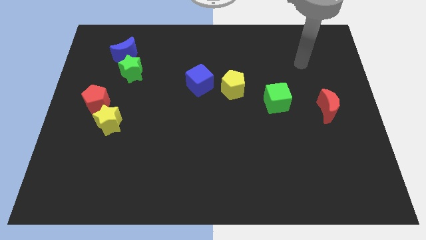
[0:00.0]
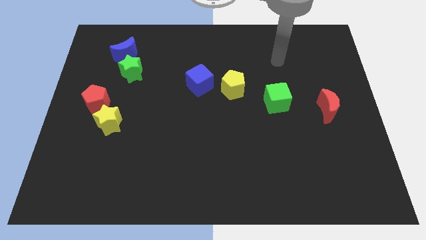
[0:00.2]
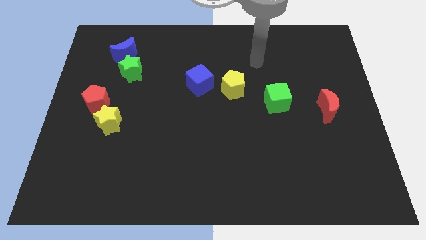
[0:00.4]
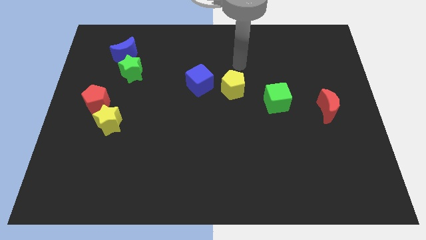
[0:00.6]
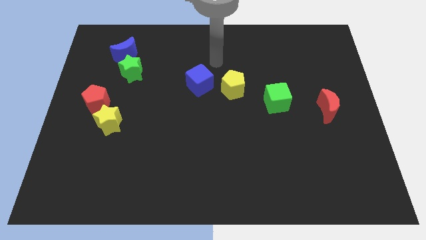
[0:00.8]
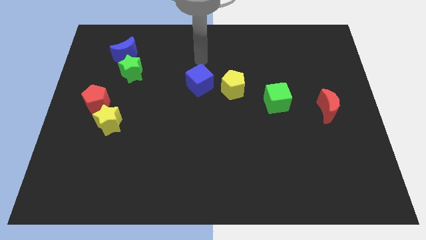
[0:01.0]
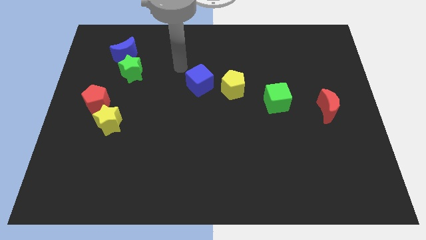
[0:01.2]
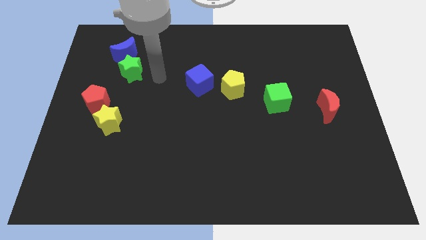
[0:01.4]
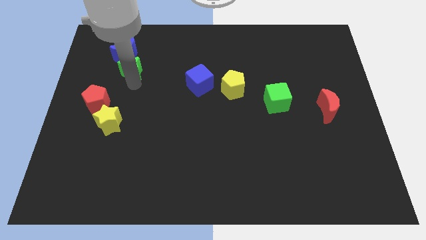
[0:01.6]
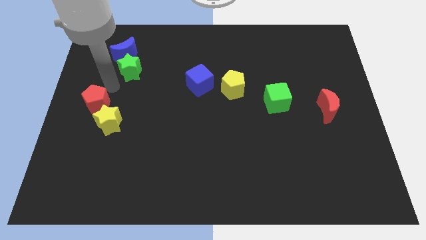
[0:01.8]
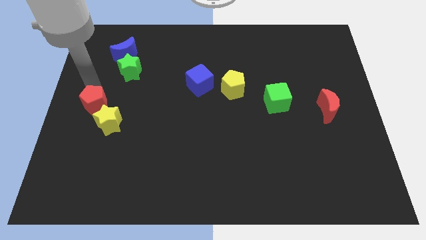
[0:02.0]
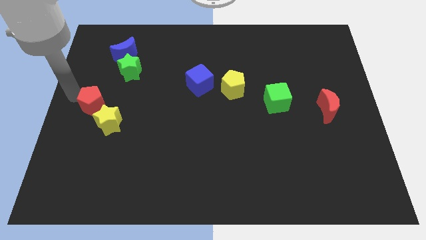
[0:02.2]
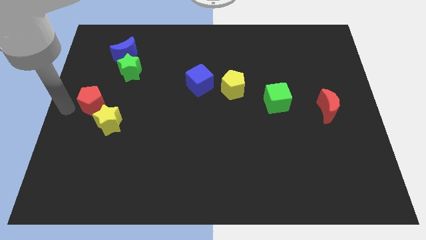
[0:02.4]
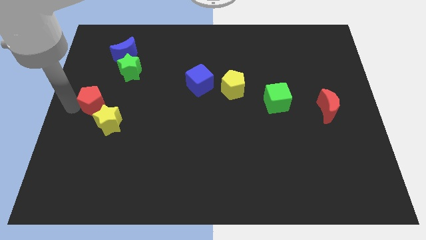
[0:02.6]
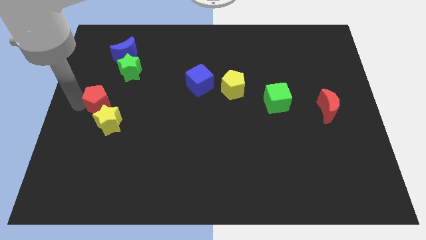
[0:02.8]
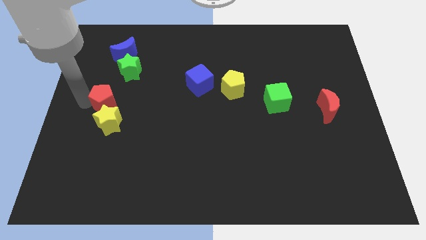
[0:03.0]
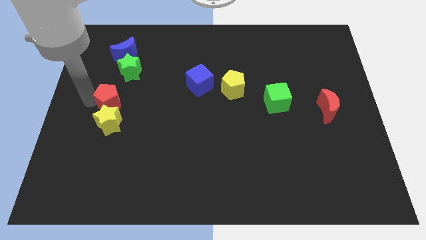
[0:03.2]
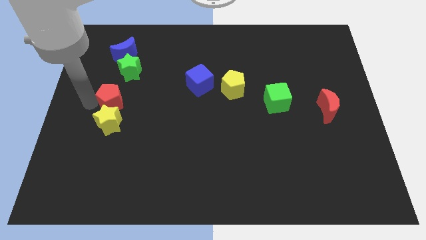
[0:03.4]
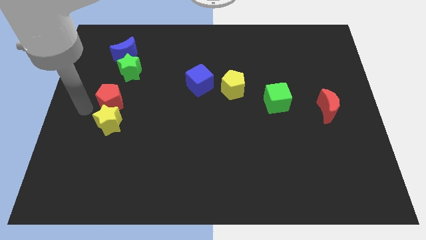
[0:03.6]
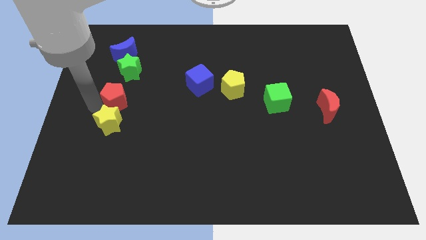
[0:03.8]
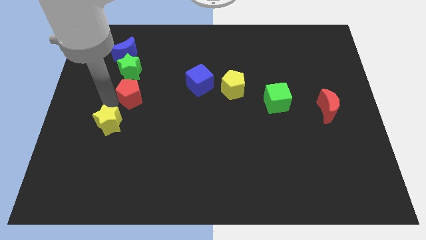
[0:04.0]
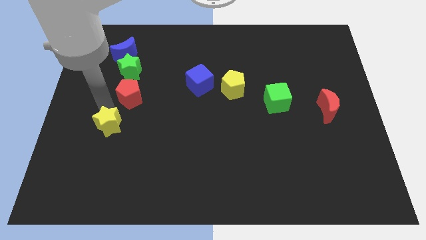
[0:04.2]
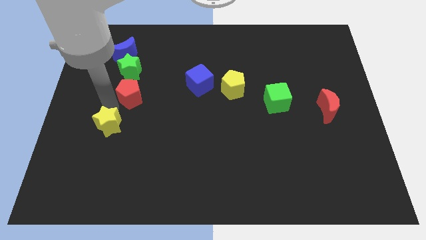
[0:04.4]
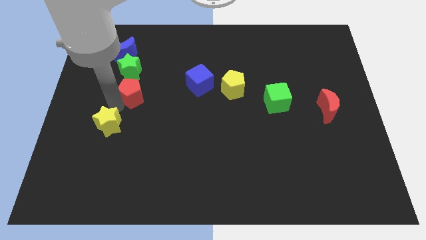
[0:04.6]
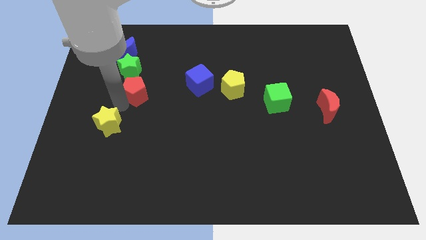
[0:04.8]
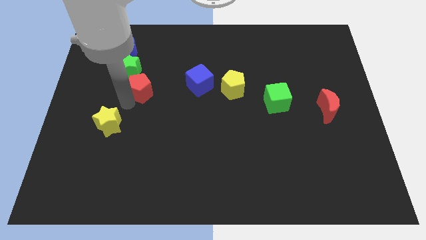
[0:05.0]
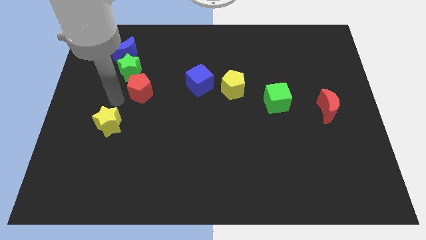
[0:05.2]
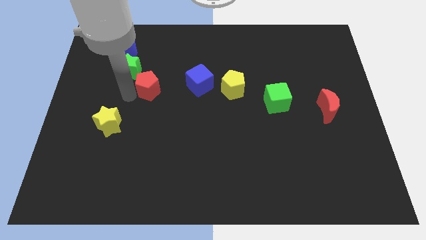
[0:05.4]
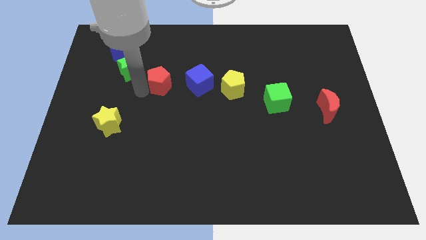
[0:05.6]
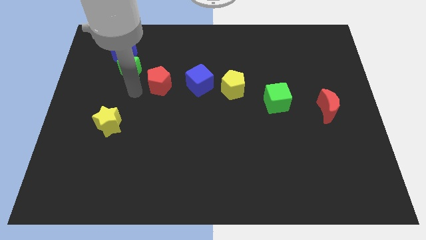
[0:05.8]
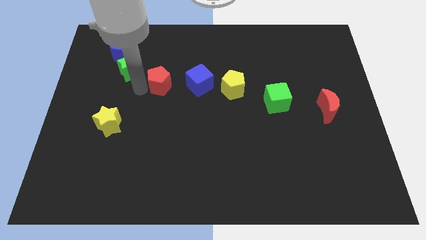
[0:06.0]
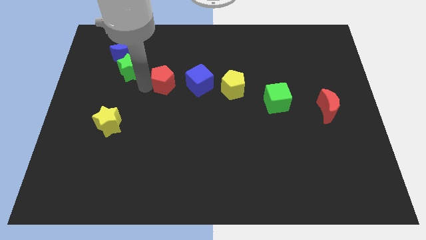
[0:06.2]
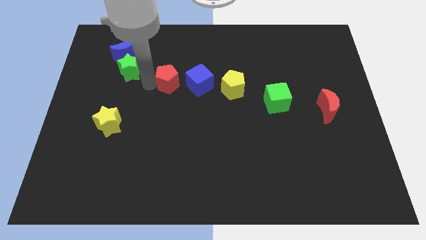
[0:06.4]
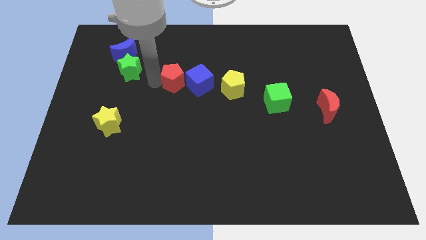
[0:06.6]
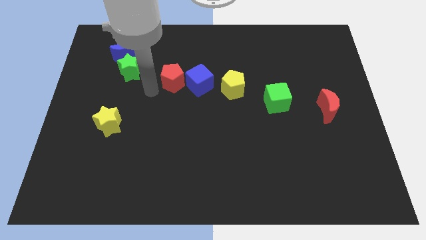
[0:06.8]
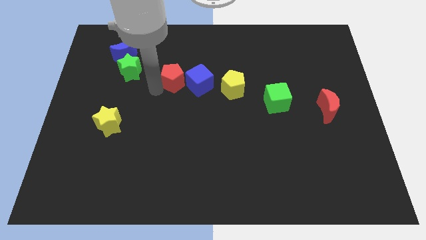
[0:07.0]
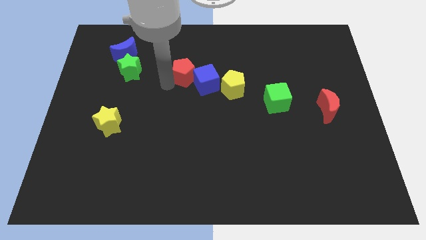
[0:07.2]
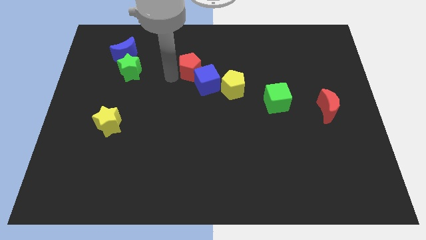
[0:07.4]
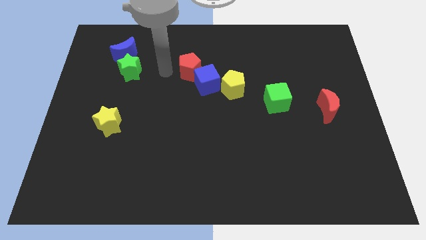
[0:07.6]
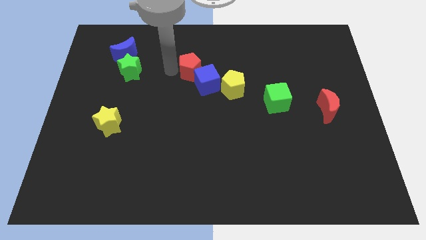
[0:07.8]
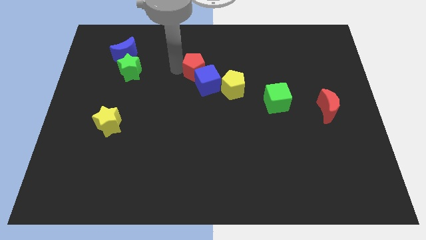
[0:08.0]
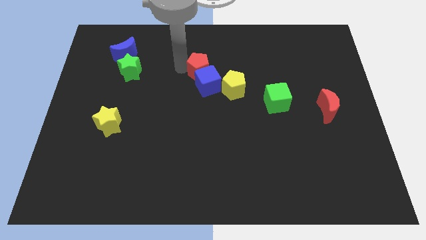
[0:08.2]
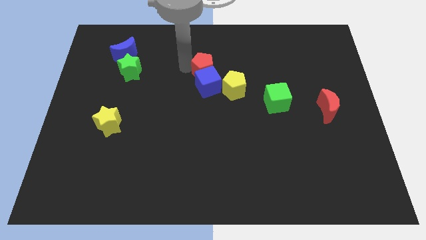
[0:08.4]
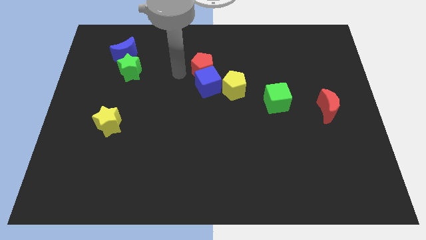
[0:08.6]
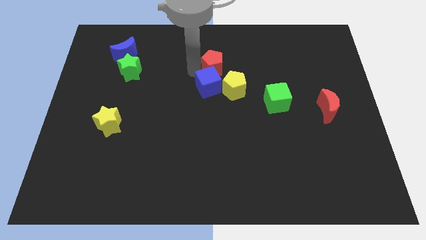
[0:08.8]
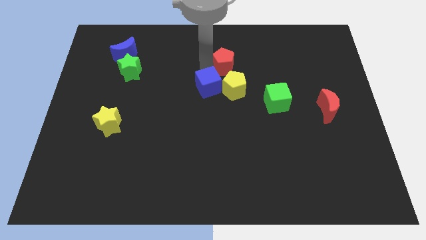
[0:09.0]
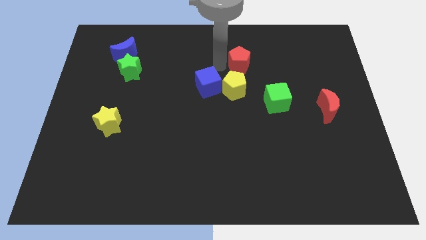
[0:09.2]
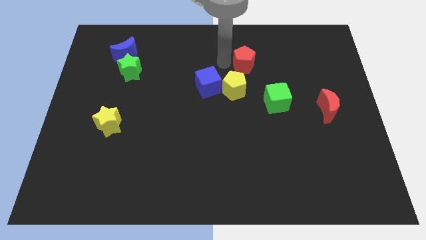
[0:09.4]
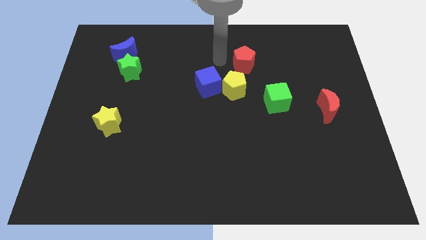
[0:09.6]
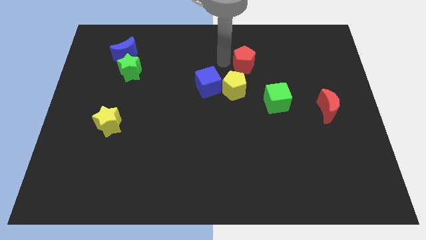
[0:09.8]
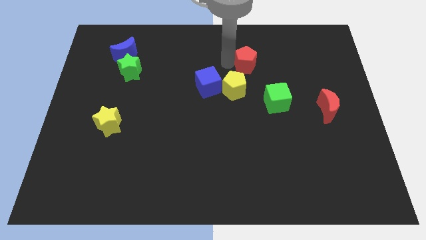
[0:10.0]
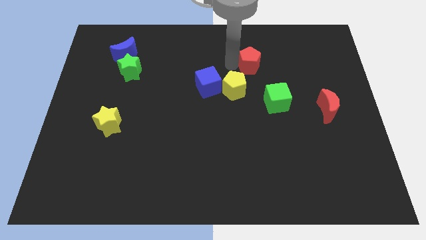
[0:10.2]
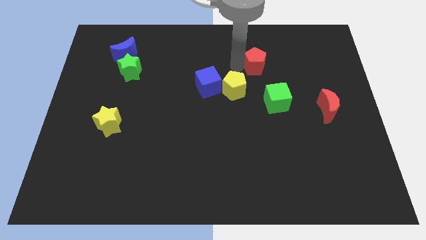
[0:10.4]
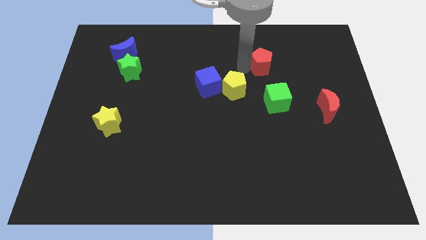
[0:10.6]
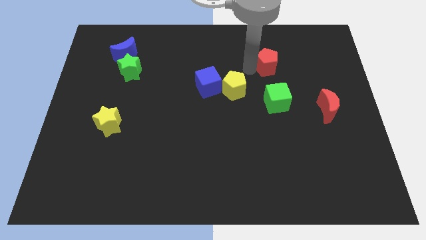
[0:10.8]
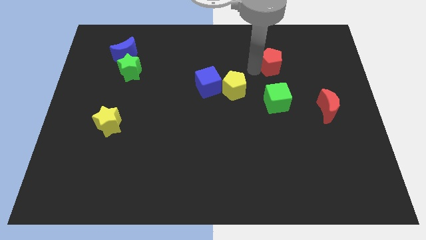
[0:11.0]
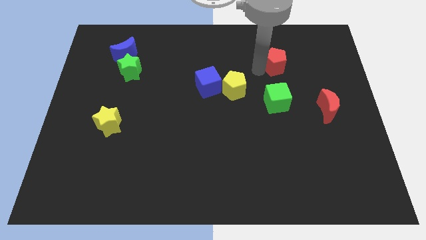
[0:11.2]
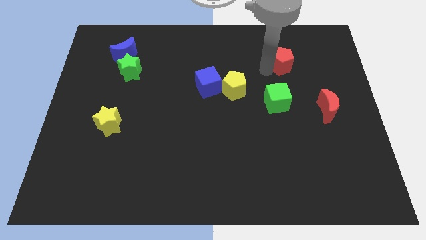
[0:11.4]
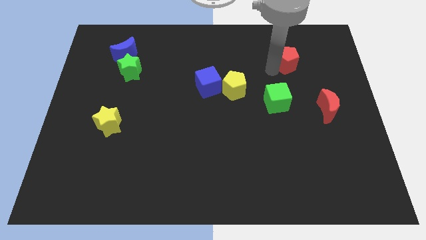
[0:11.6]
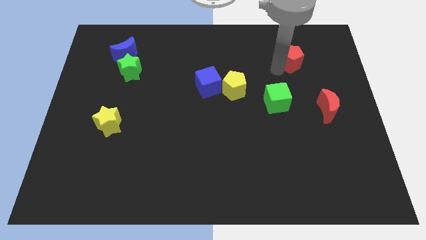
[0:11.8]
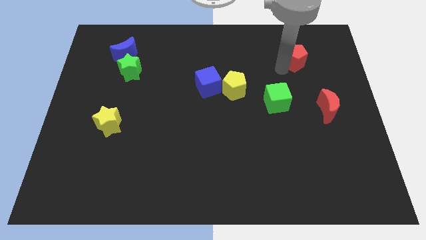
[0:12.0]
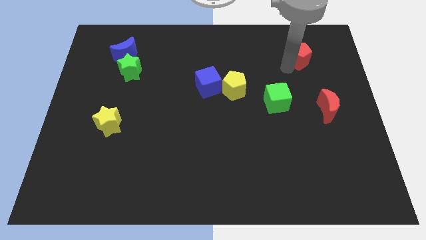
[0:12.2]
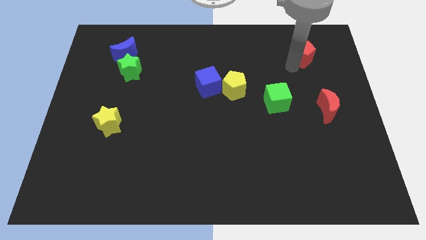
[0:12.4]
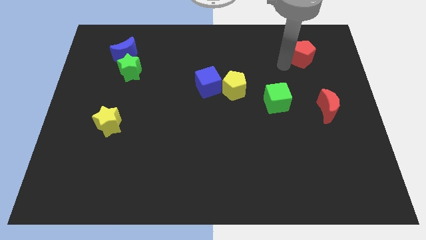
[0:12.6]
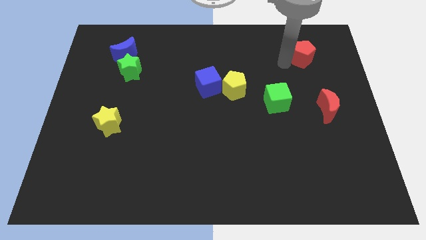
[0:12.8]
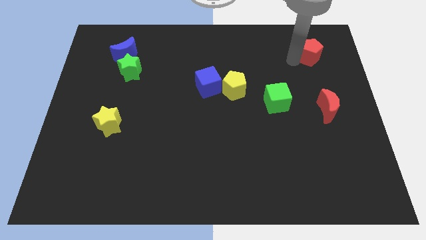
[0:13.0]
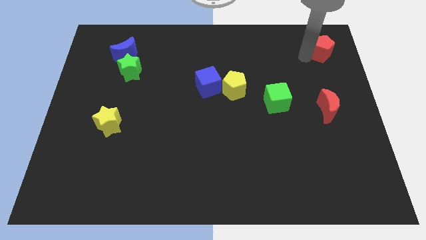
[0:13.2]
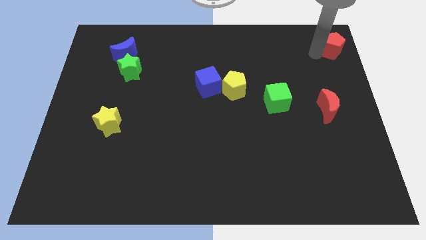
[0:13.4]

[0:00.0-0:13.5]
move the red pentagon to the upper right corner

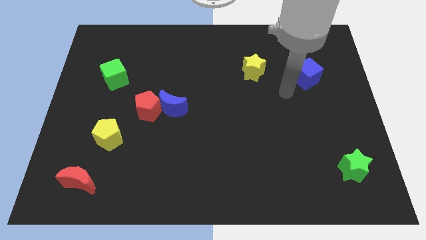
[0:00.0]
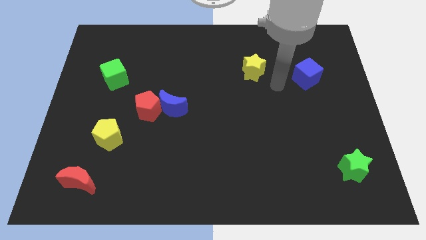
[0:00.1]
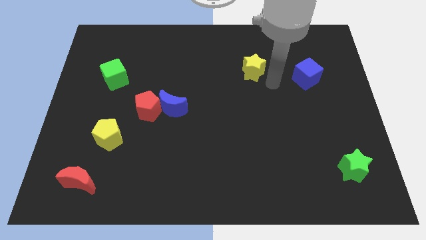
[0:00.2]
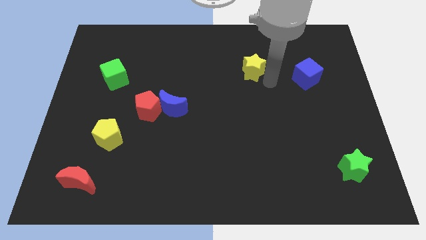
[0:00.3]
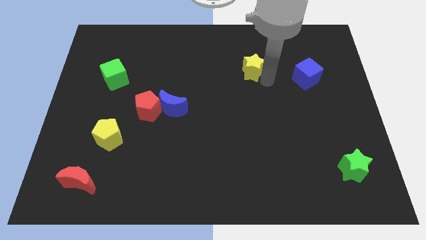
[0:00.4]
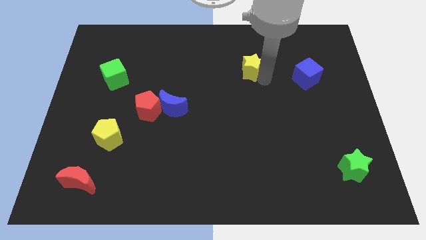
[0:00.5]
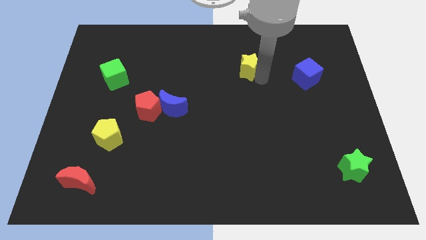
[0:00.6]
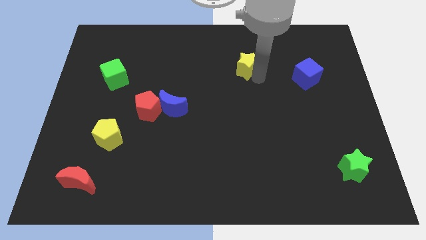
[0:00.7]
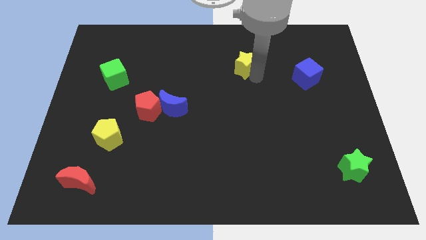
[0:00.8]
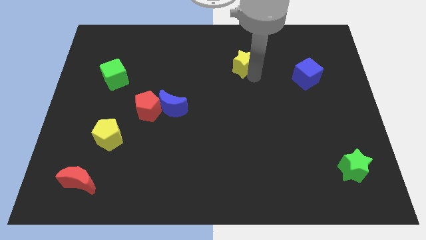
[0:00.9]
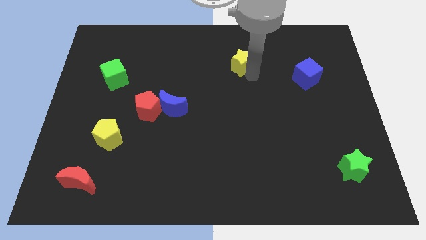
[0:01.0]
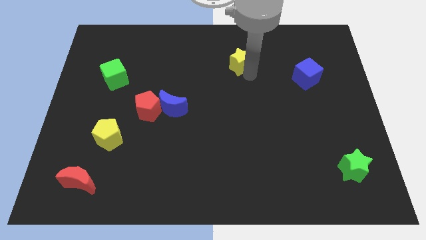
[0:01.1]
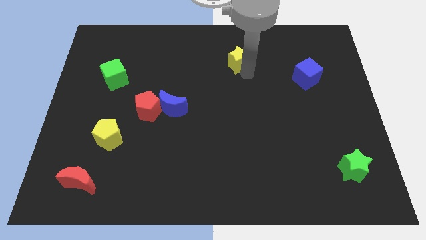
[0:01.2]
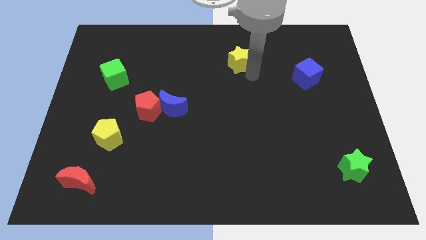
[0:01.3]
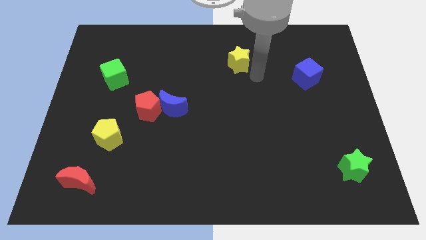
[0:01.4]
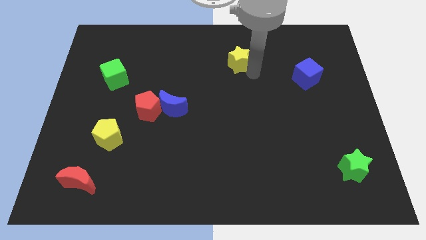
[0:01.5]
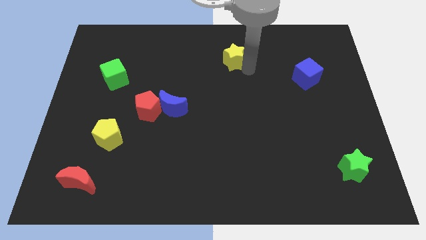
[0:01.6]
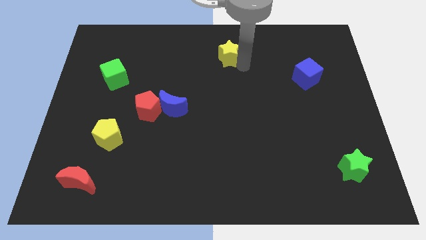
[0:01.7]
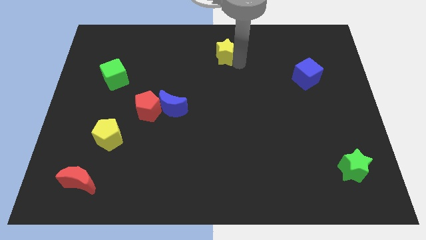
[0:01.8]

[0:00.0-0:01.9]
slide the yellow star to the towards your base

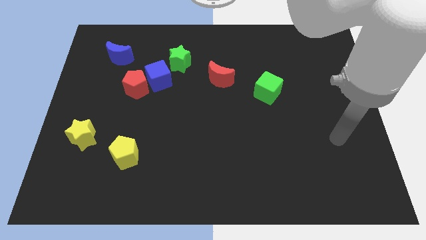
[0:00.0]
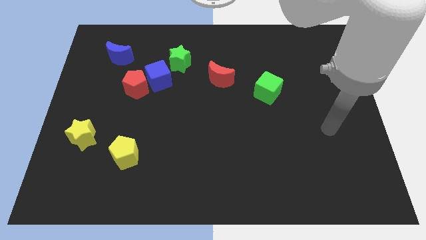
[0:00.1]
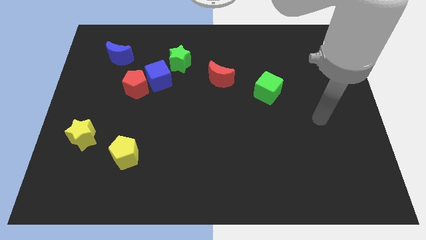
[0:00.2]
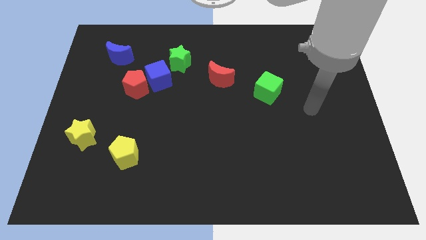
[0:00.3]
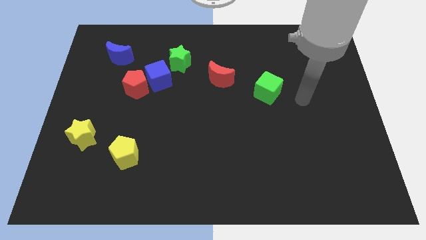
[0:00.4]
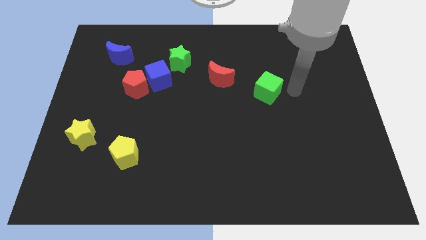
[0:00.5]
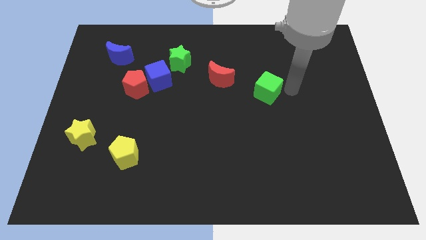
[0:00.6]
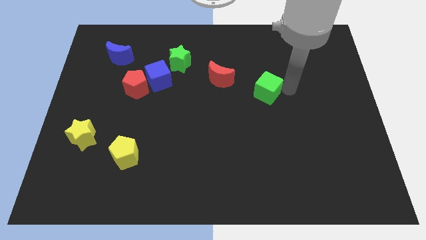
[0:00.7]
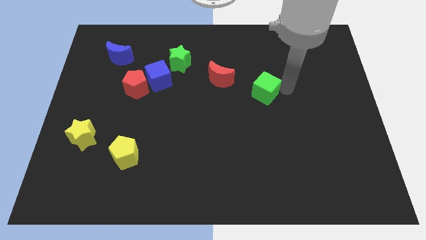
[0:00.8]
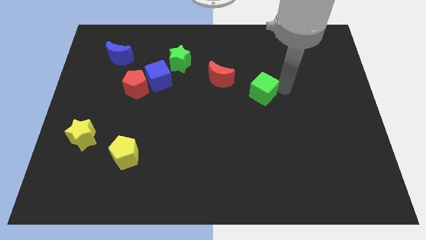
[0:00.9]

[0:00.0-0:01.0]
move the green cube to the center
